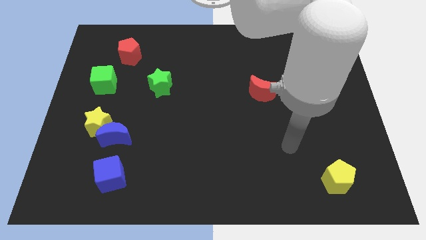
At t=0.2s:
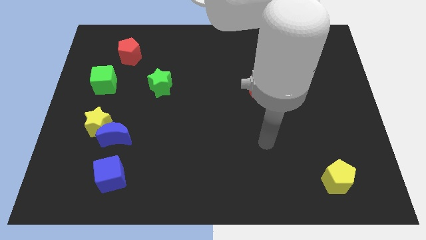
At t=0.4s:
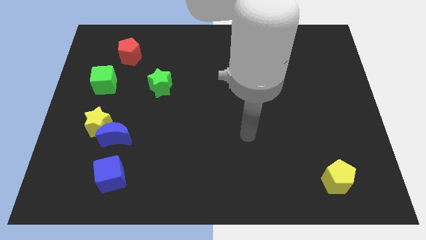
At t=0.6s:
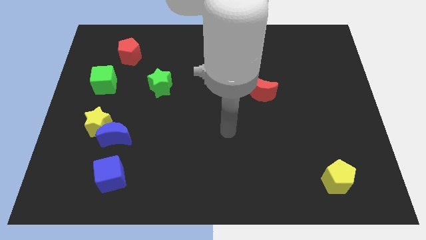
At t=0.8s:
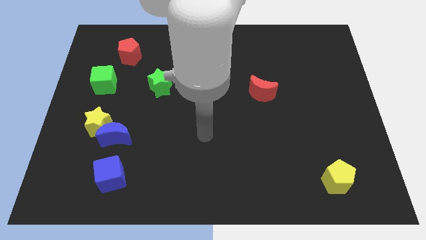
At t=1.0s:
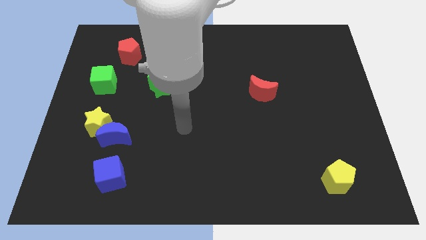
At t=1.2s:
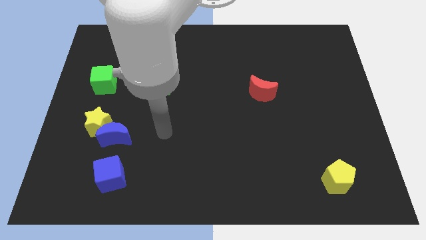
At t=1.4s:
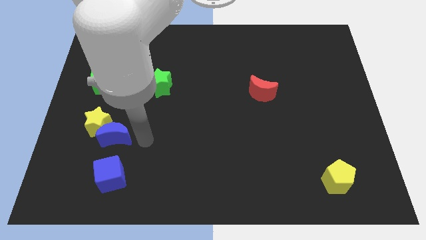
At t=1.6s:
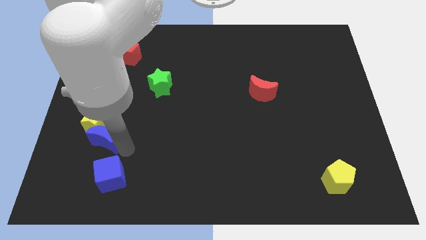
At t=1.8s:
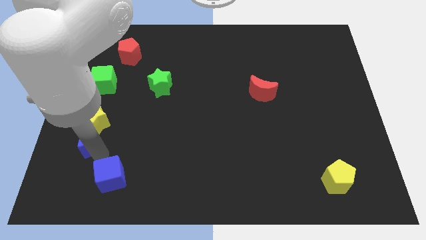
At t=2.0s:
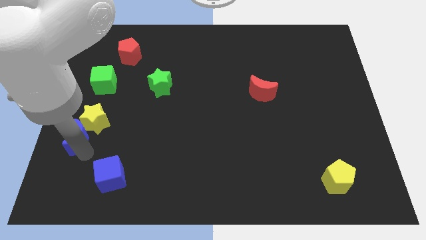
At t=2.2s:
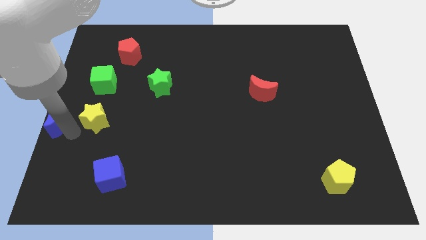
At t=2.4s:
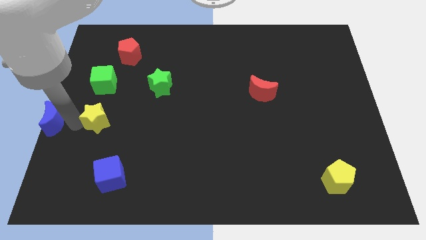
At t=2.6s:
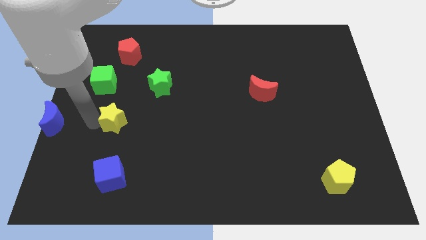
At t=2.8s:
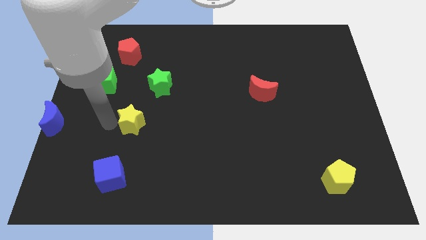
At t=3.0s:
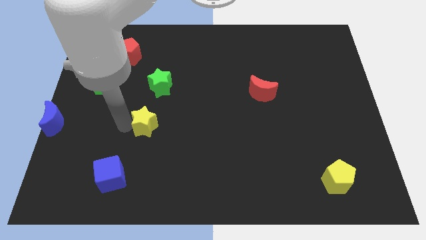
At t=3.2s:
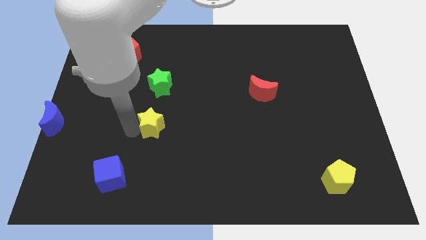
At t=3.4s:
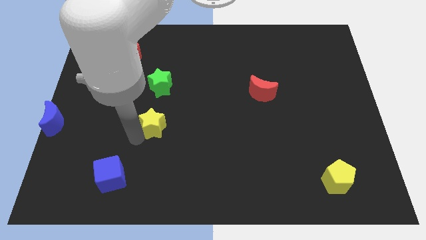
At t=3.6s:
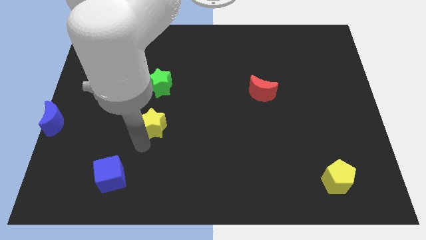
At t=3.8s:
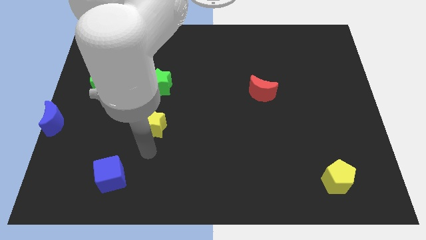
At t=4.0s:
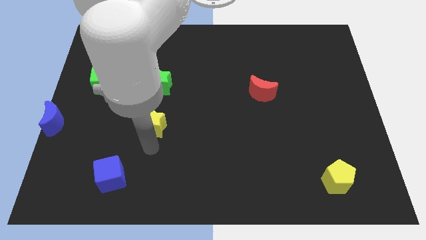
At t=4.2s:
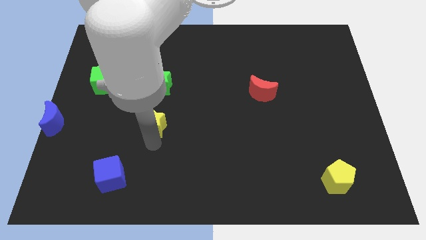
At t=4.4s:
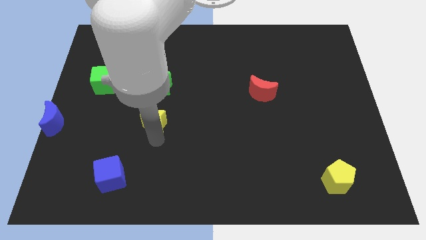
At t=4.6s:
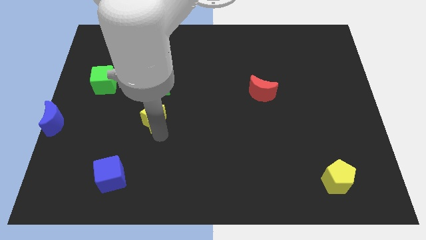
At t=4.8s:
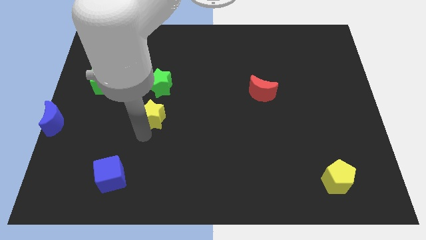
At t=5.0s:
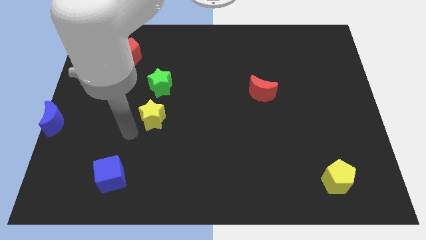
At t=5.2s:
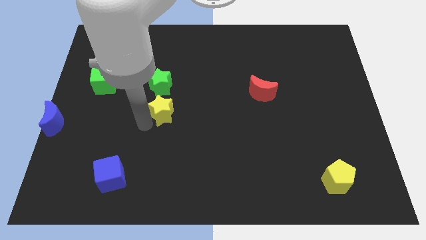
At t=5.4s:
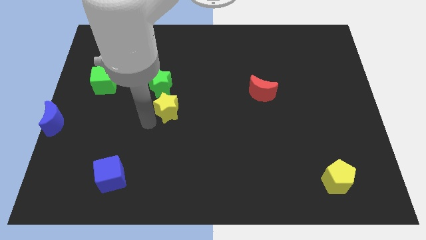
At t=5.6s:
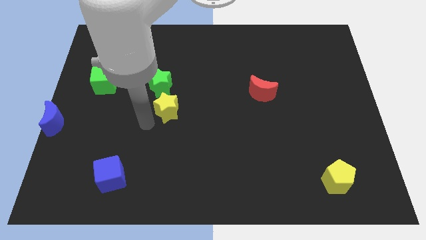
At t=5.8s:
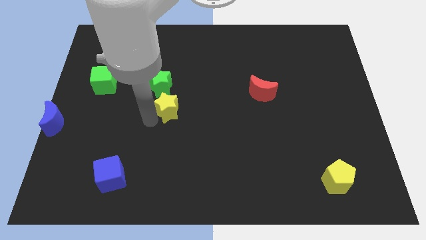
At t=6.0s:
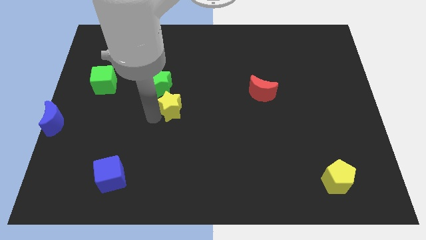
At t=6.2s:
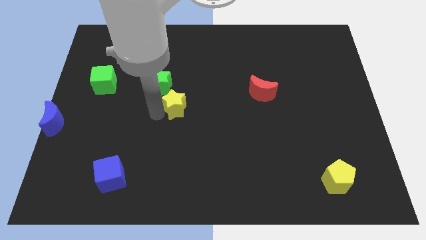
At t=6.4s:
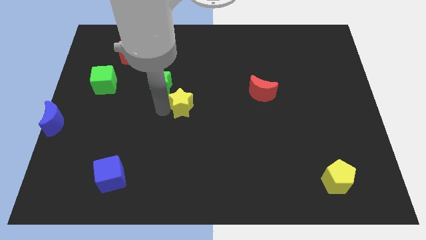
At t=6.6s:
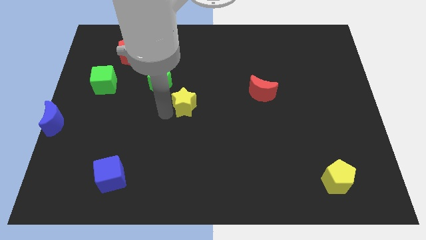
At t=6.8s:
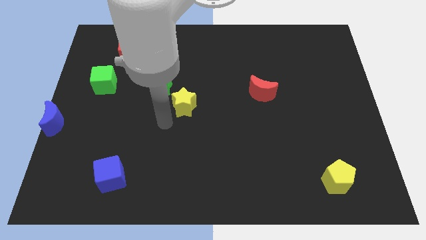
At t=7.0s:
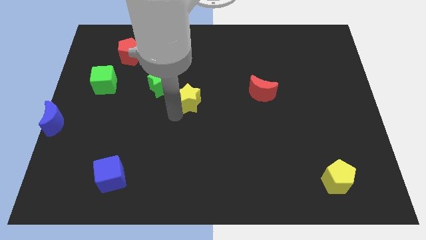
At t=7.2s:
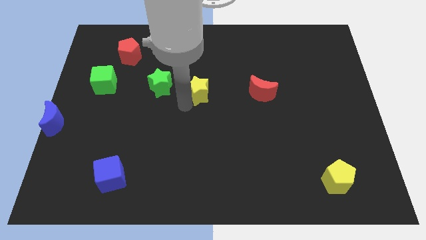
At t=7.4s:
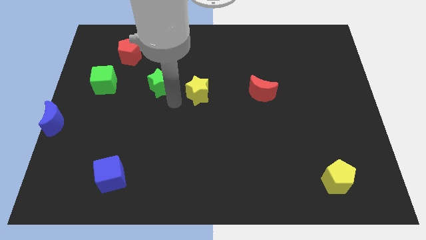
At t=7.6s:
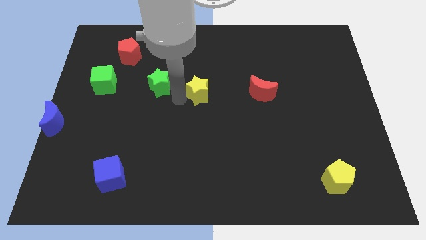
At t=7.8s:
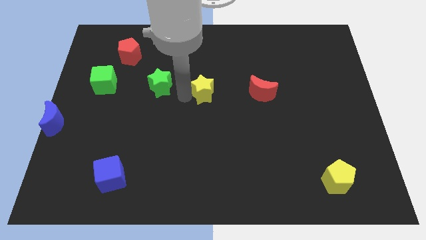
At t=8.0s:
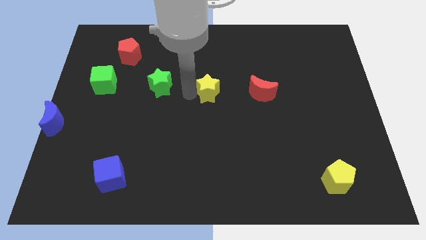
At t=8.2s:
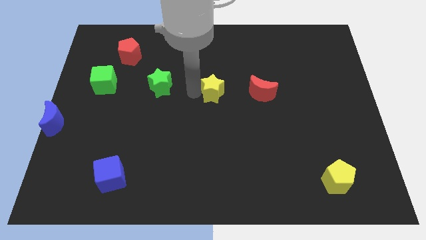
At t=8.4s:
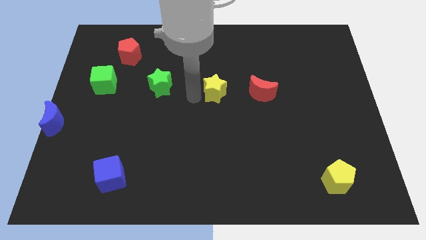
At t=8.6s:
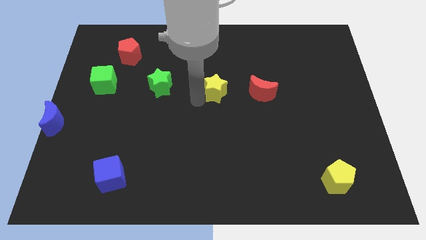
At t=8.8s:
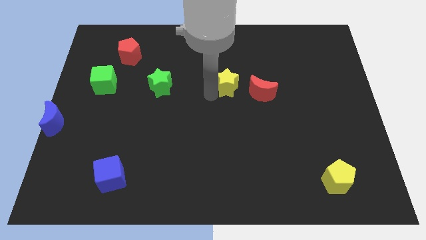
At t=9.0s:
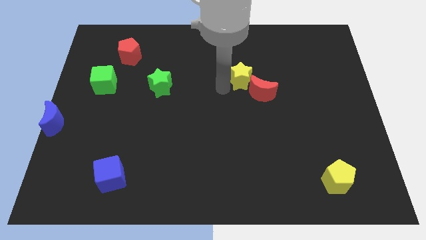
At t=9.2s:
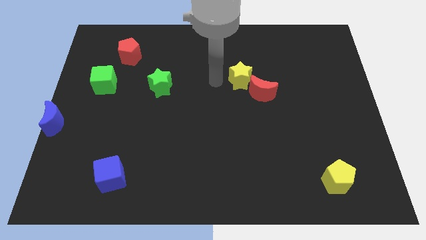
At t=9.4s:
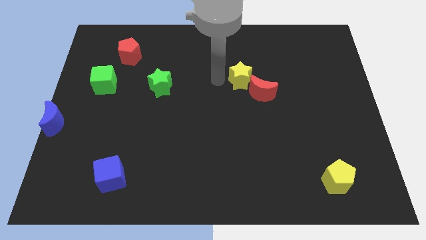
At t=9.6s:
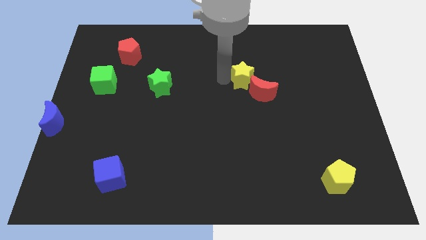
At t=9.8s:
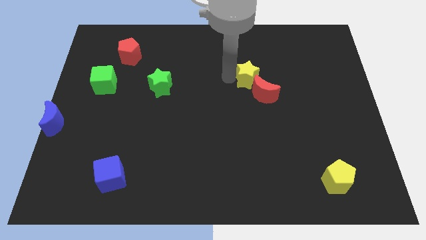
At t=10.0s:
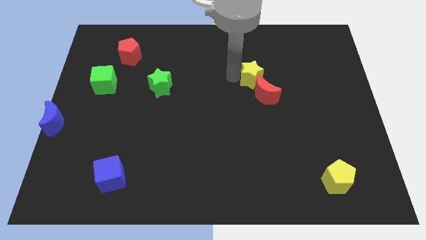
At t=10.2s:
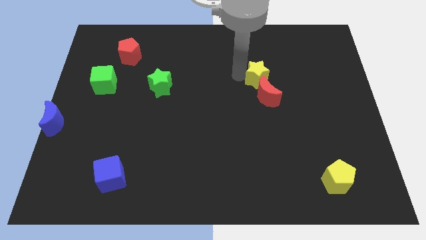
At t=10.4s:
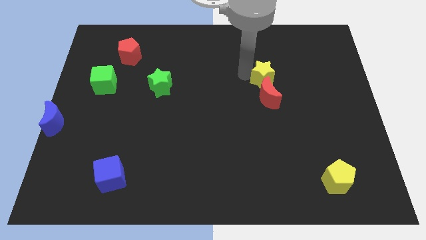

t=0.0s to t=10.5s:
move the yellow star to the top right side of the red moon

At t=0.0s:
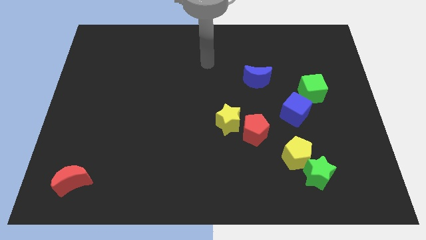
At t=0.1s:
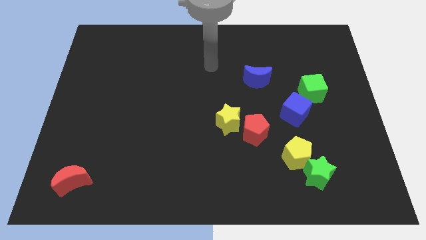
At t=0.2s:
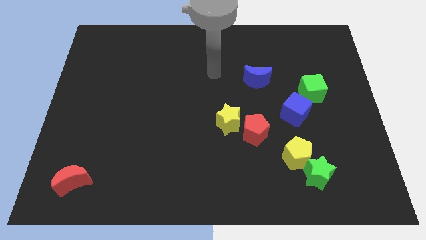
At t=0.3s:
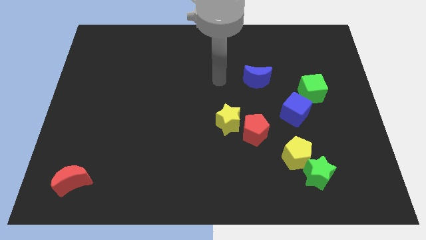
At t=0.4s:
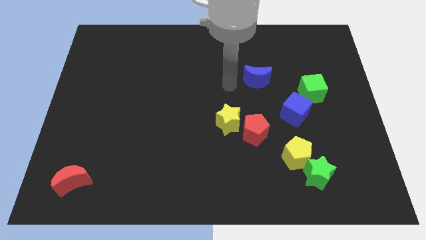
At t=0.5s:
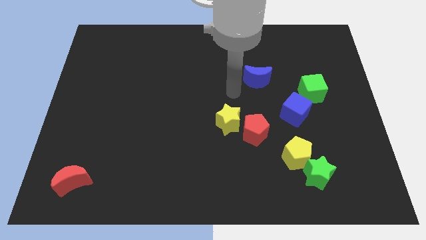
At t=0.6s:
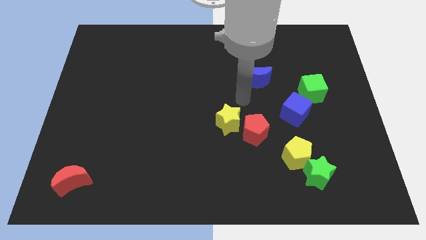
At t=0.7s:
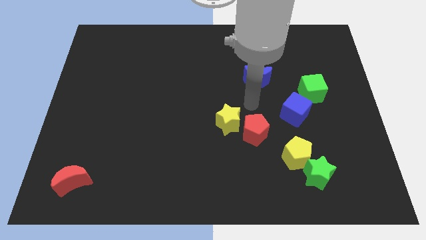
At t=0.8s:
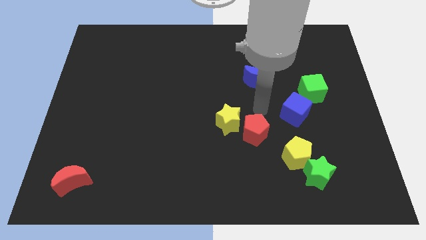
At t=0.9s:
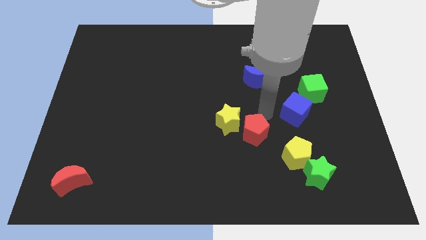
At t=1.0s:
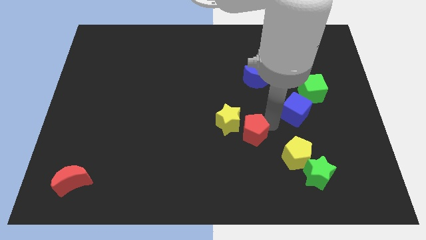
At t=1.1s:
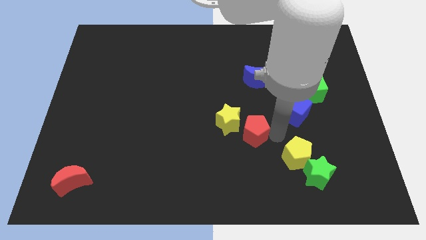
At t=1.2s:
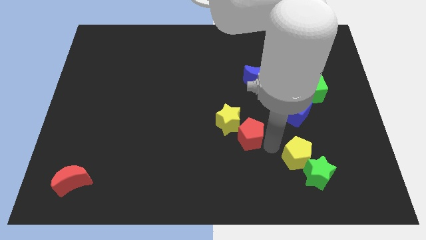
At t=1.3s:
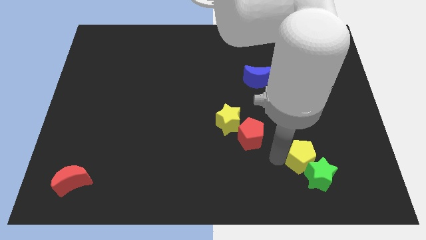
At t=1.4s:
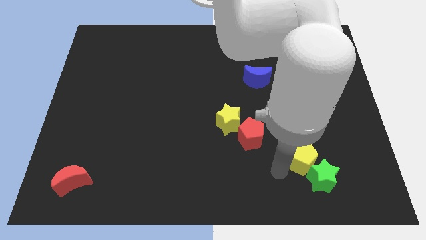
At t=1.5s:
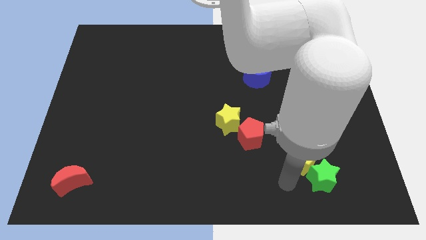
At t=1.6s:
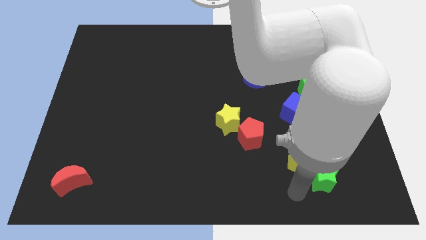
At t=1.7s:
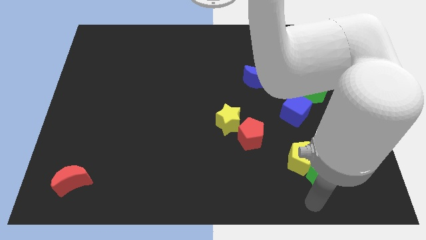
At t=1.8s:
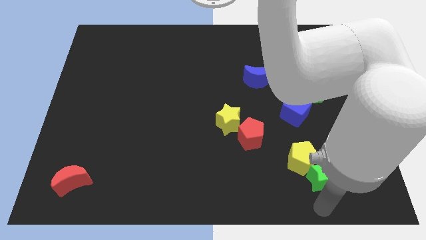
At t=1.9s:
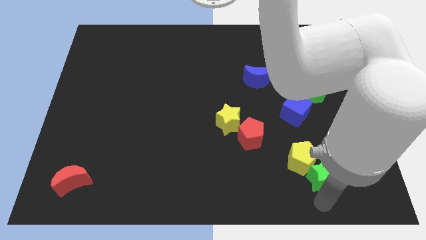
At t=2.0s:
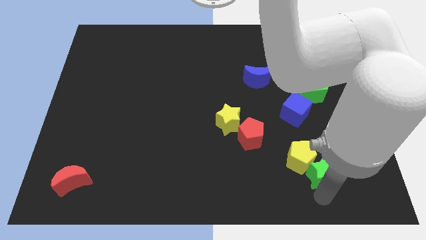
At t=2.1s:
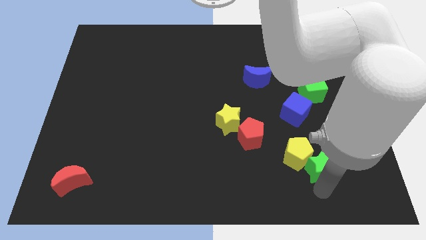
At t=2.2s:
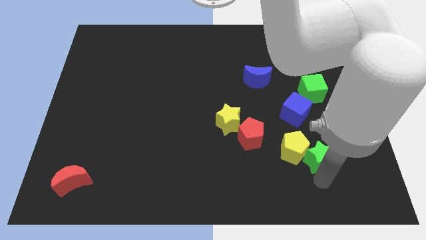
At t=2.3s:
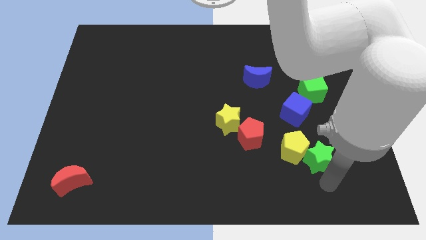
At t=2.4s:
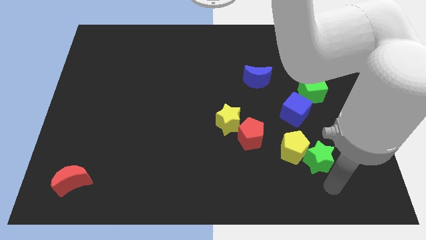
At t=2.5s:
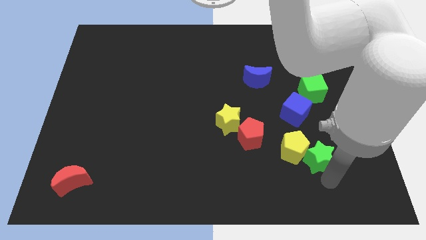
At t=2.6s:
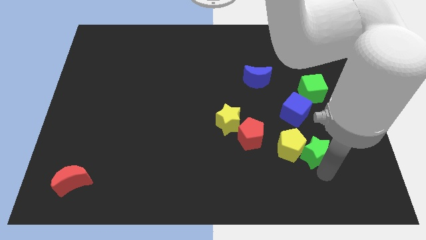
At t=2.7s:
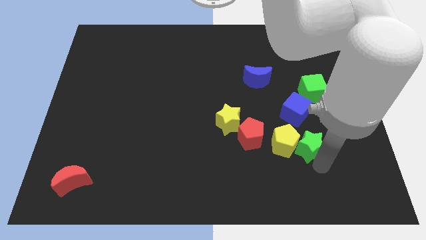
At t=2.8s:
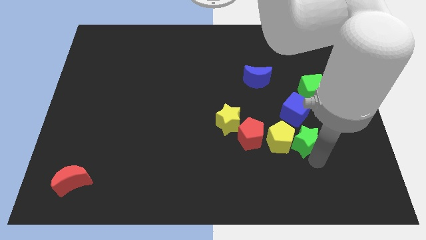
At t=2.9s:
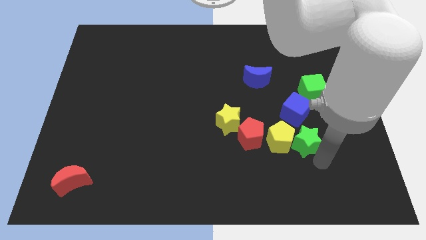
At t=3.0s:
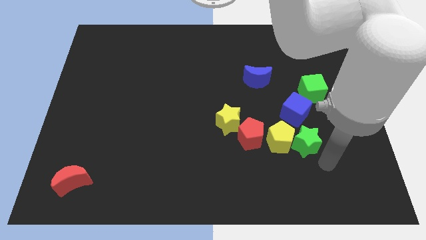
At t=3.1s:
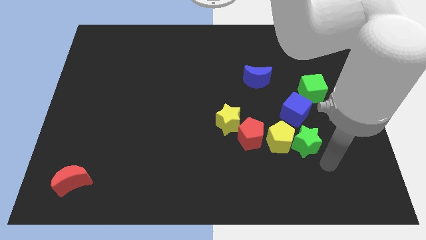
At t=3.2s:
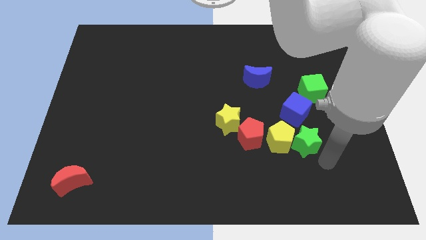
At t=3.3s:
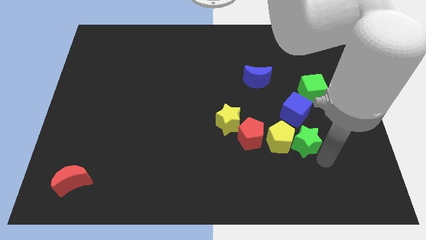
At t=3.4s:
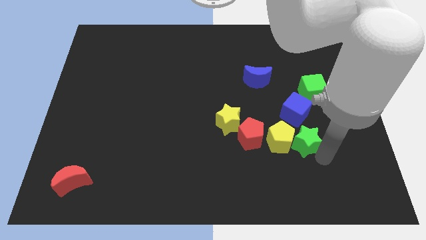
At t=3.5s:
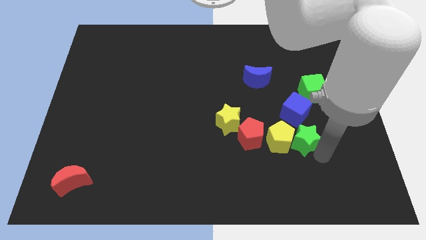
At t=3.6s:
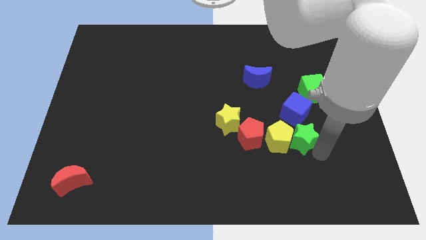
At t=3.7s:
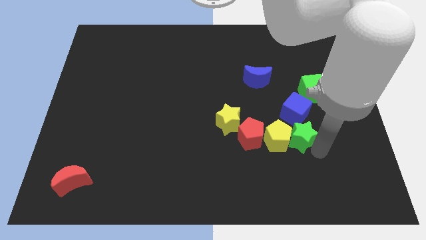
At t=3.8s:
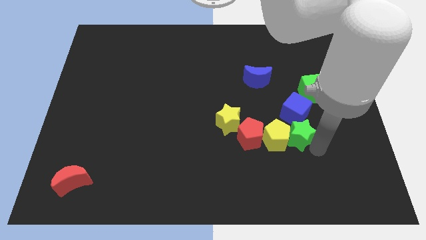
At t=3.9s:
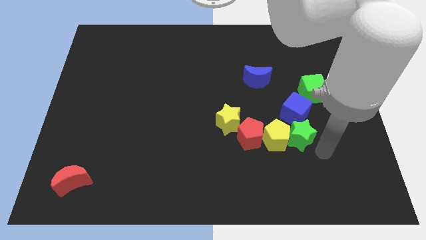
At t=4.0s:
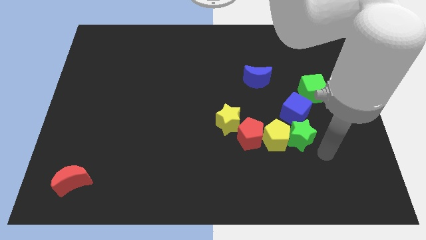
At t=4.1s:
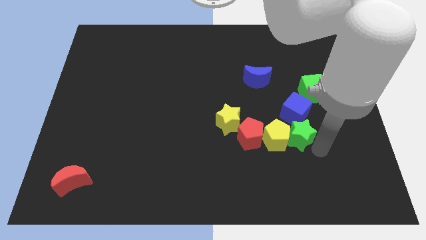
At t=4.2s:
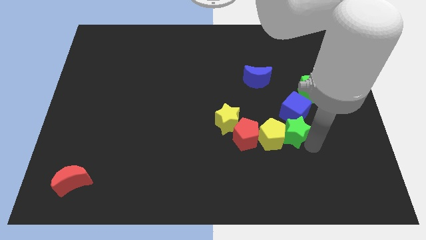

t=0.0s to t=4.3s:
push the green star to the right of the yellow star
